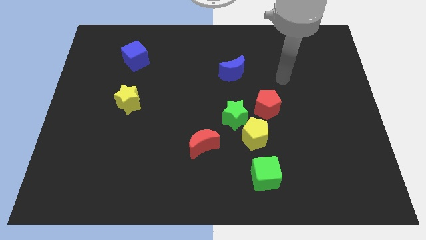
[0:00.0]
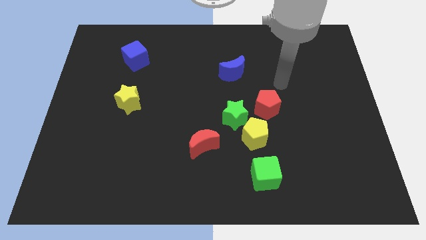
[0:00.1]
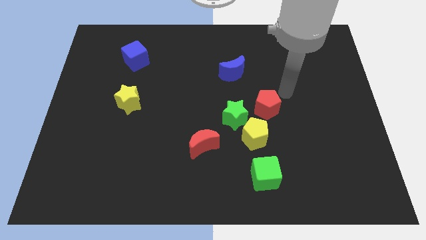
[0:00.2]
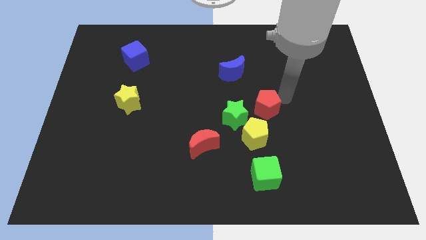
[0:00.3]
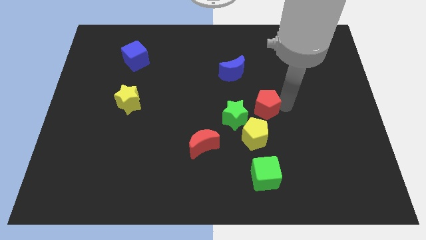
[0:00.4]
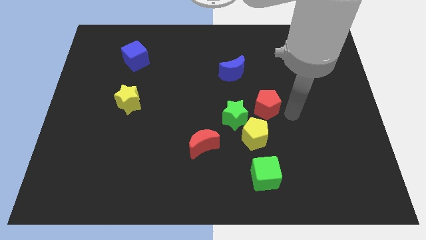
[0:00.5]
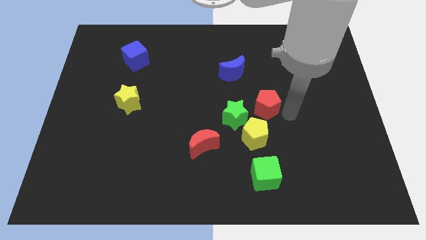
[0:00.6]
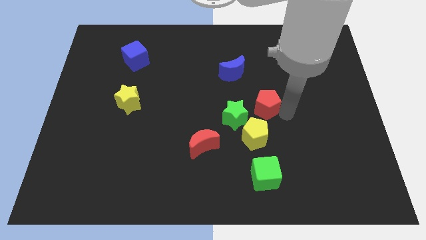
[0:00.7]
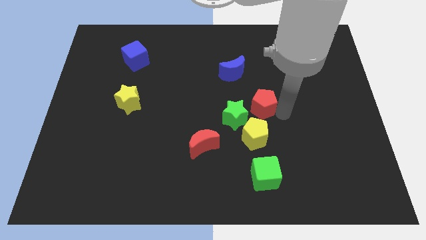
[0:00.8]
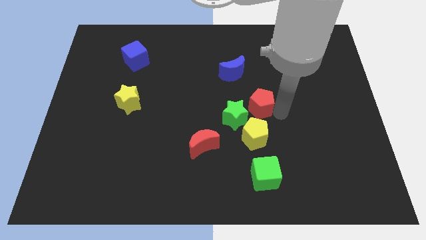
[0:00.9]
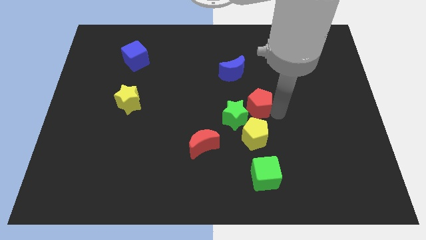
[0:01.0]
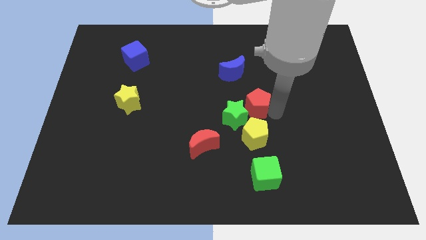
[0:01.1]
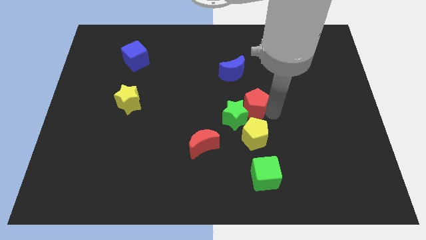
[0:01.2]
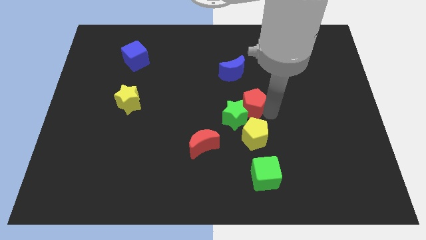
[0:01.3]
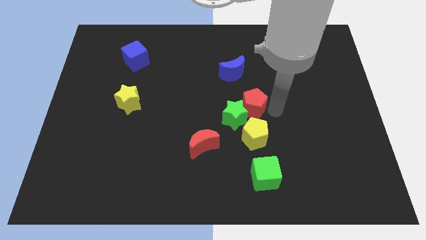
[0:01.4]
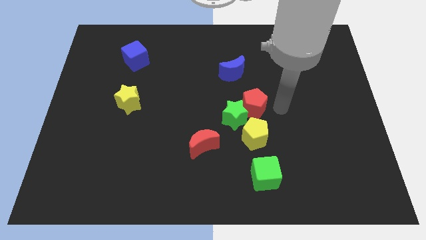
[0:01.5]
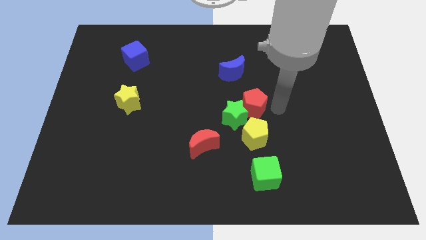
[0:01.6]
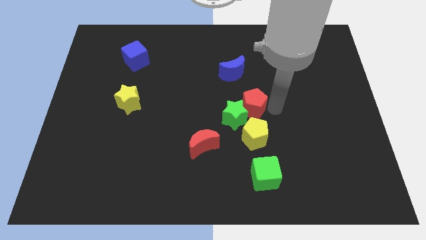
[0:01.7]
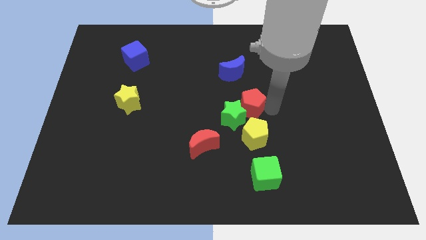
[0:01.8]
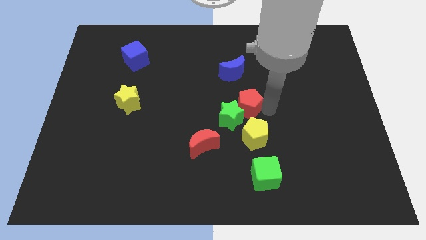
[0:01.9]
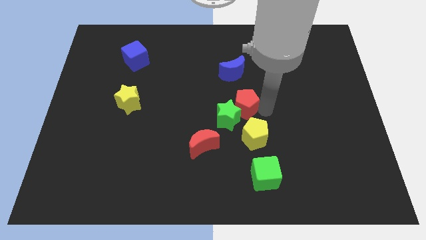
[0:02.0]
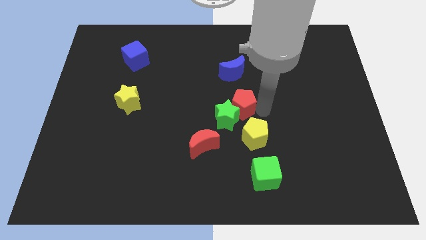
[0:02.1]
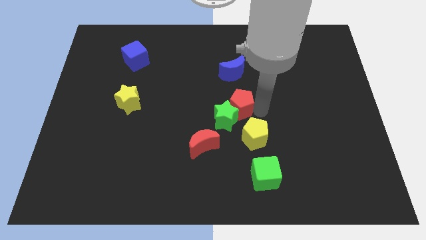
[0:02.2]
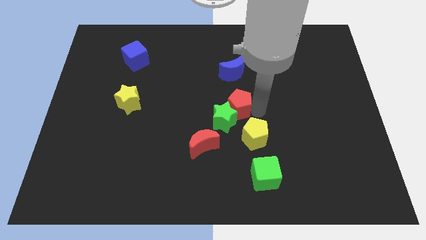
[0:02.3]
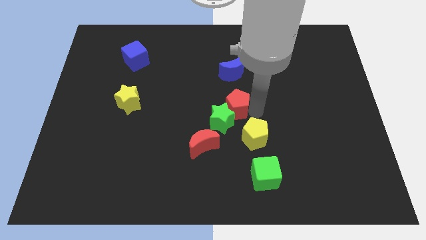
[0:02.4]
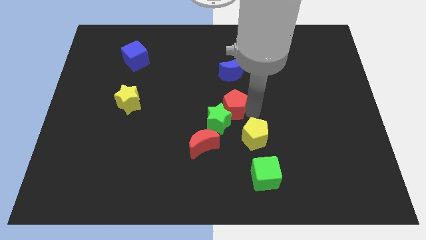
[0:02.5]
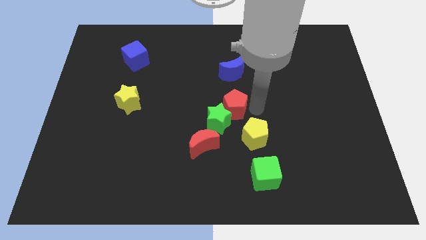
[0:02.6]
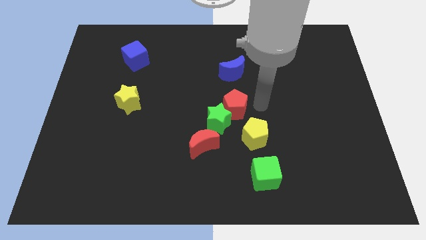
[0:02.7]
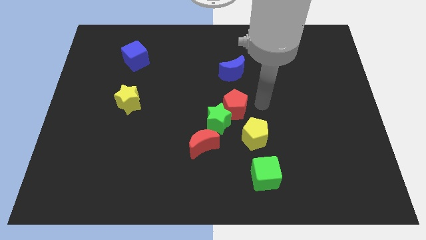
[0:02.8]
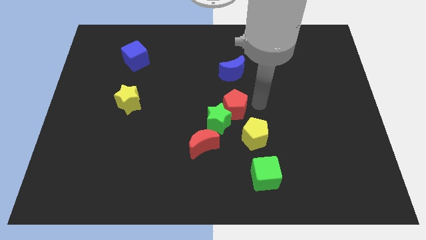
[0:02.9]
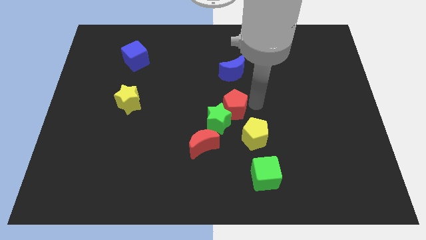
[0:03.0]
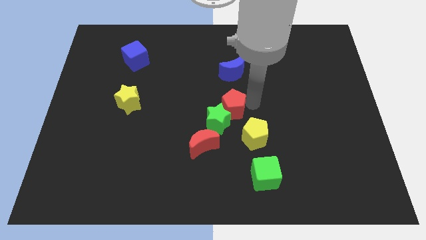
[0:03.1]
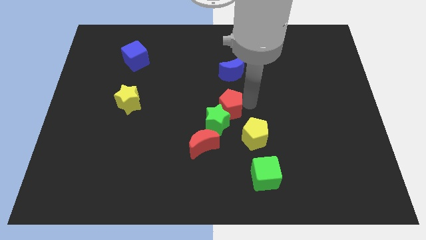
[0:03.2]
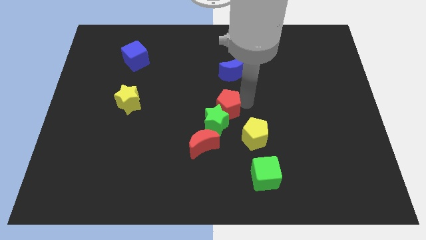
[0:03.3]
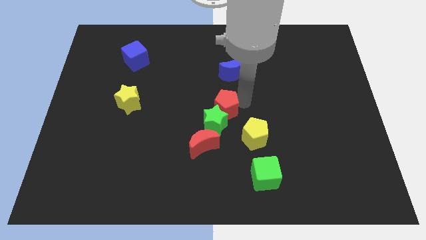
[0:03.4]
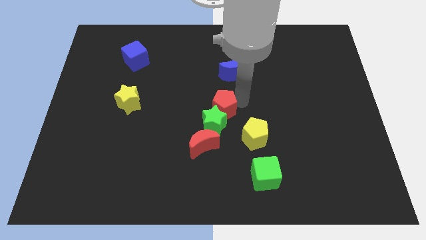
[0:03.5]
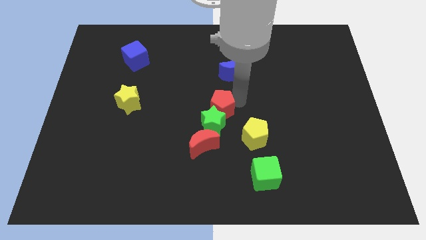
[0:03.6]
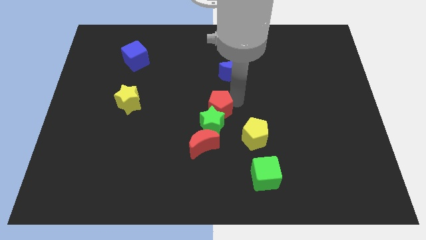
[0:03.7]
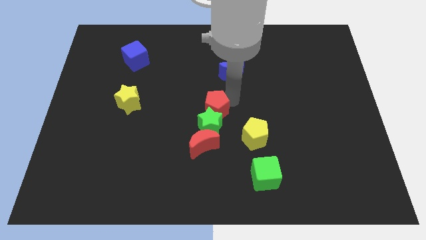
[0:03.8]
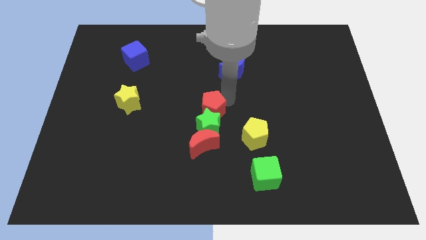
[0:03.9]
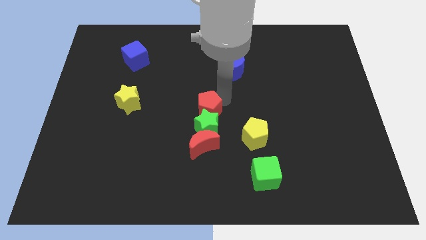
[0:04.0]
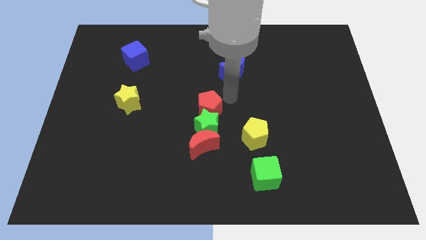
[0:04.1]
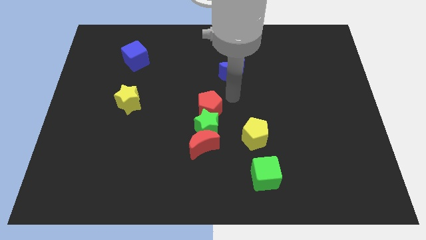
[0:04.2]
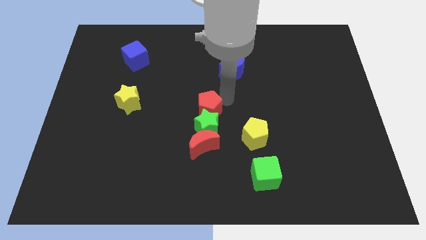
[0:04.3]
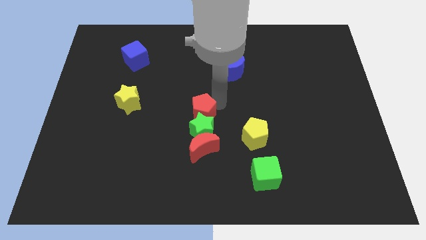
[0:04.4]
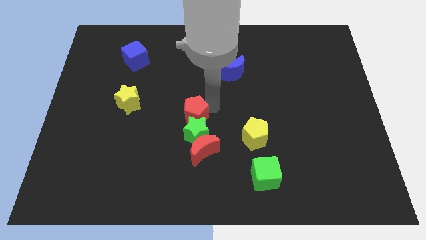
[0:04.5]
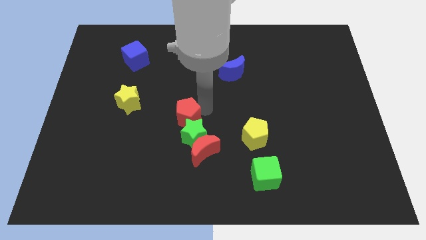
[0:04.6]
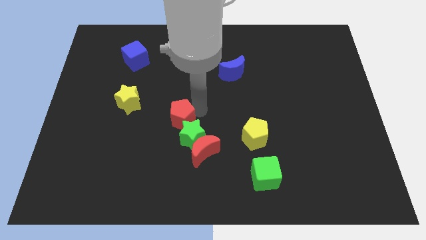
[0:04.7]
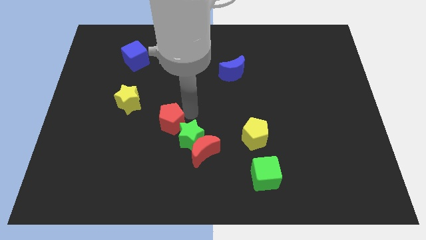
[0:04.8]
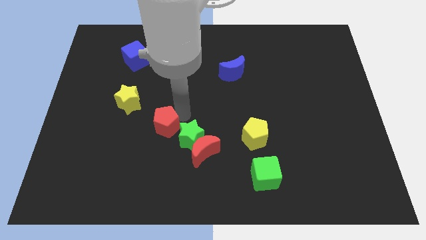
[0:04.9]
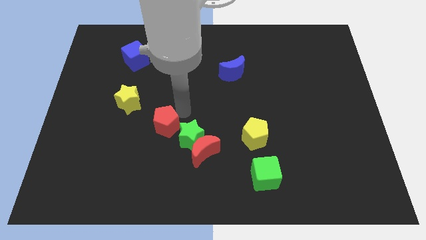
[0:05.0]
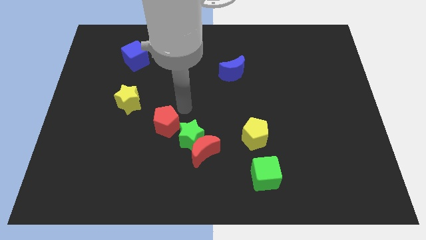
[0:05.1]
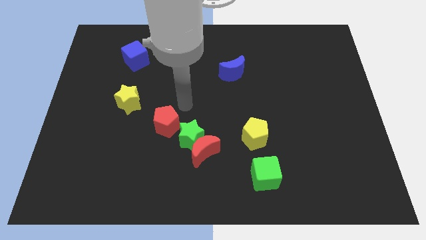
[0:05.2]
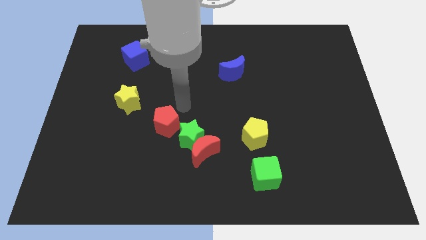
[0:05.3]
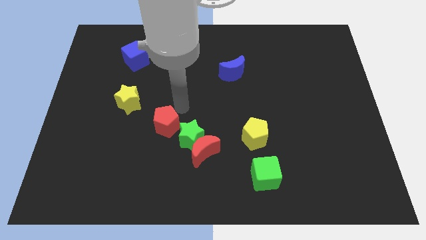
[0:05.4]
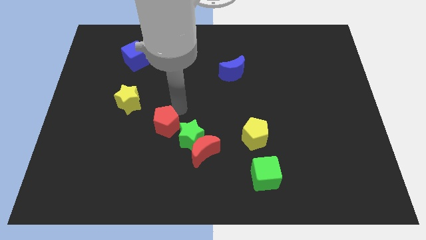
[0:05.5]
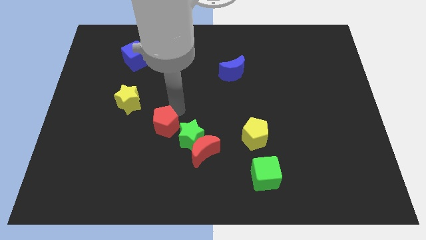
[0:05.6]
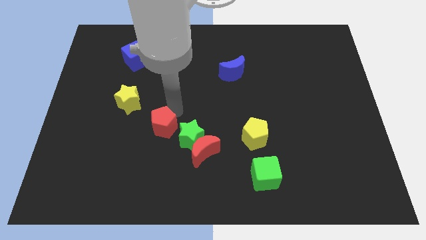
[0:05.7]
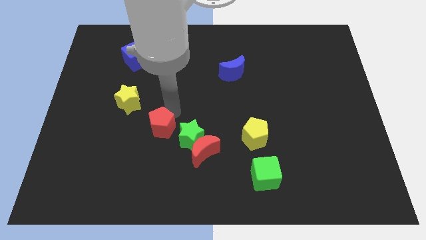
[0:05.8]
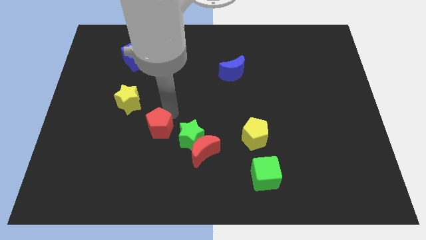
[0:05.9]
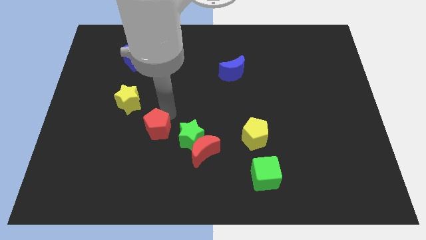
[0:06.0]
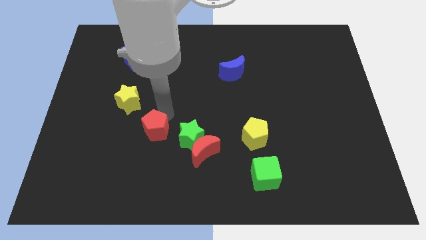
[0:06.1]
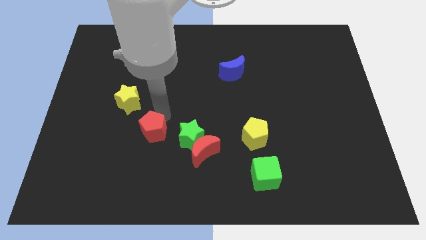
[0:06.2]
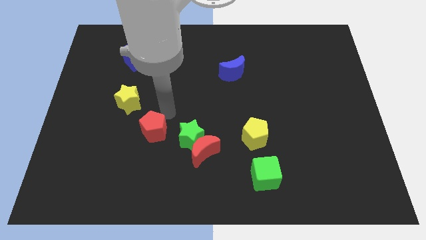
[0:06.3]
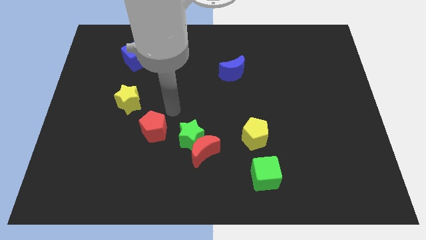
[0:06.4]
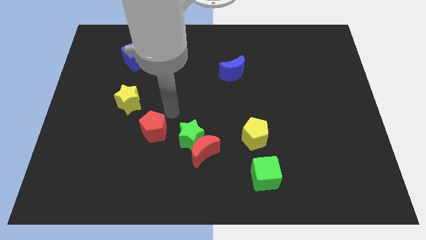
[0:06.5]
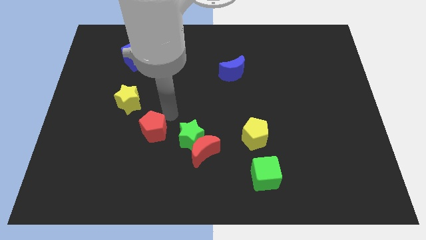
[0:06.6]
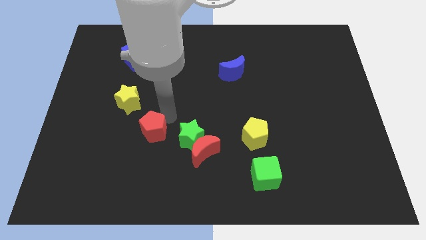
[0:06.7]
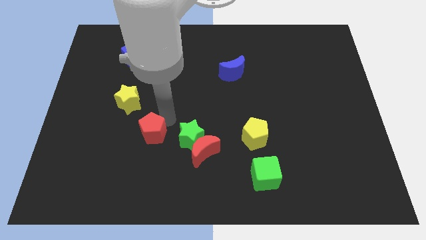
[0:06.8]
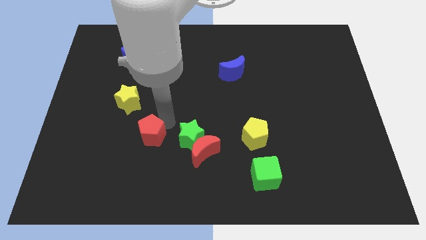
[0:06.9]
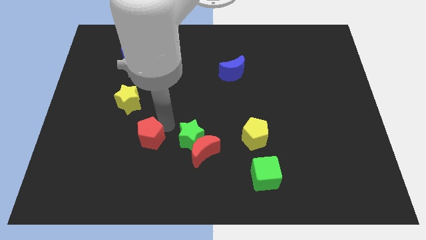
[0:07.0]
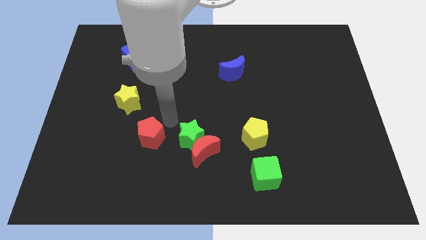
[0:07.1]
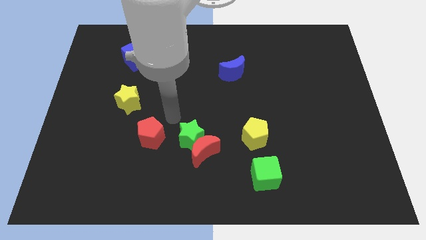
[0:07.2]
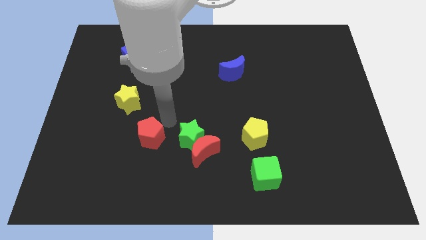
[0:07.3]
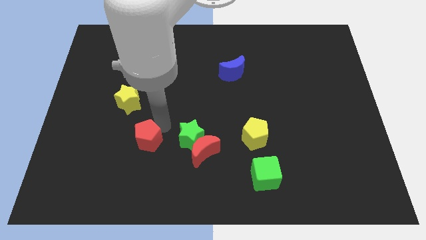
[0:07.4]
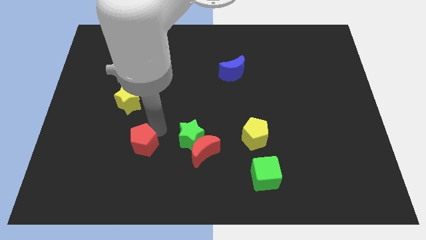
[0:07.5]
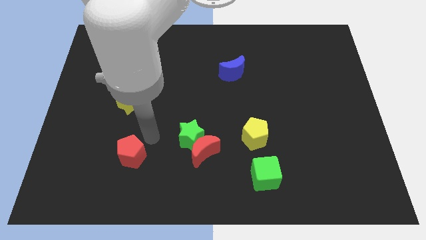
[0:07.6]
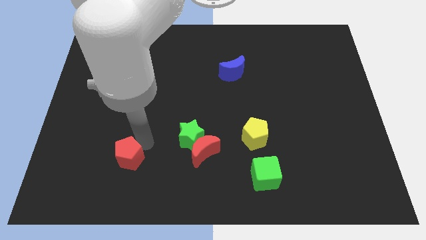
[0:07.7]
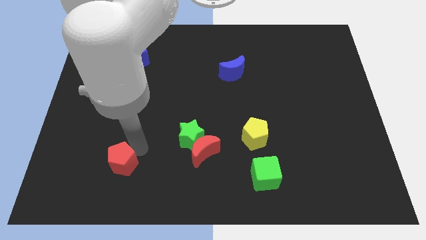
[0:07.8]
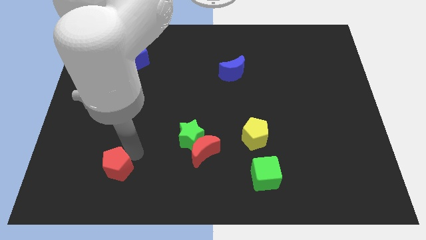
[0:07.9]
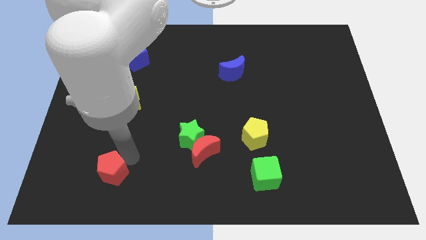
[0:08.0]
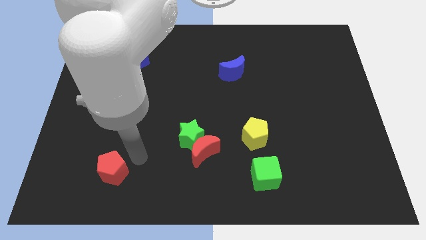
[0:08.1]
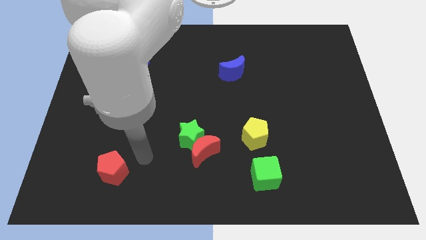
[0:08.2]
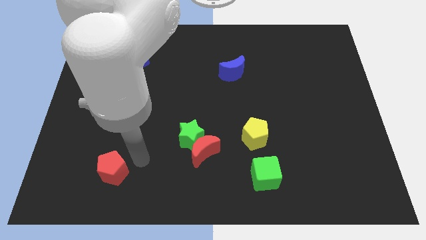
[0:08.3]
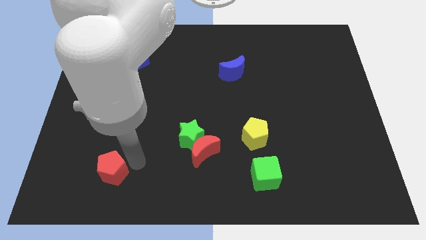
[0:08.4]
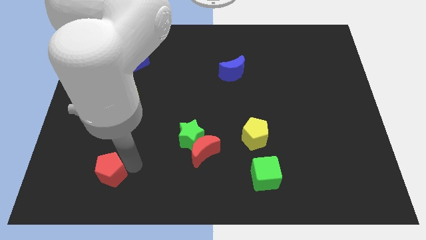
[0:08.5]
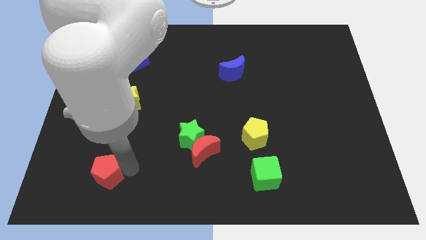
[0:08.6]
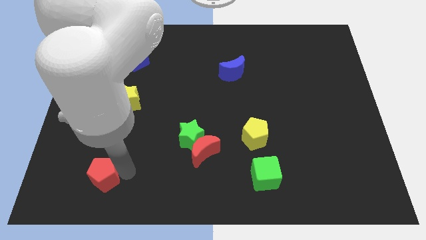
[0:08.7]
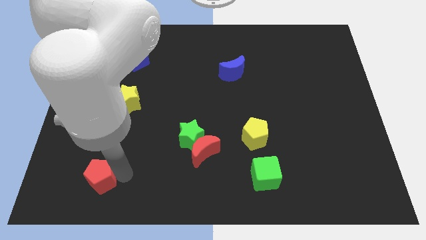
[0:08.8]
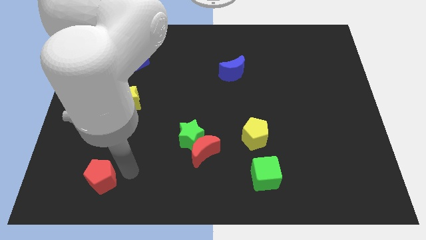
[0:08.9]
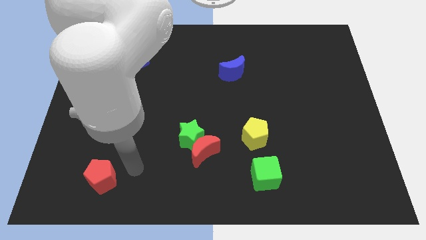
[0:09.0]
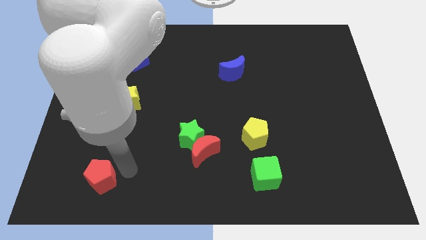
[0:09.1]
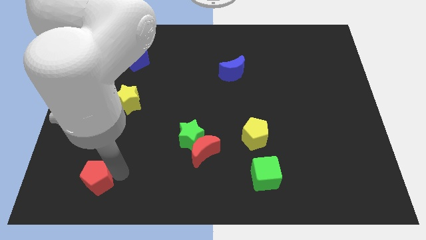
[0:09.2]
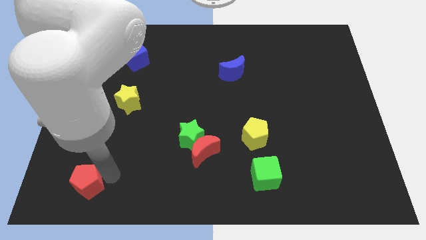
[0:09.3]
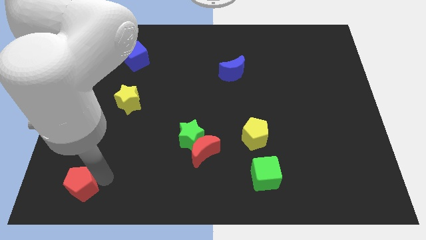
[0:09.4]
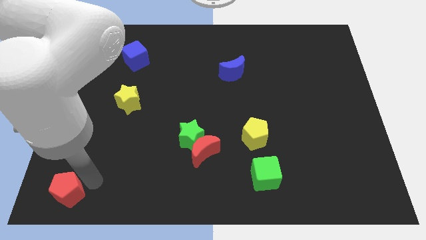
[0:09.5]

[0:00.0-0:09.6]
slide the red pentagon to the bottom left corner
